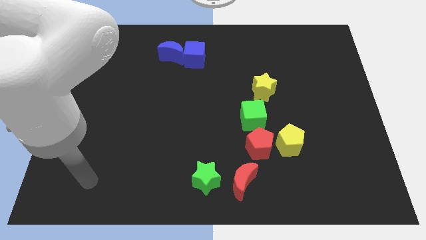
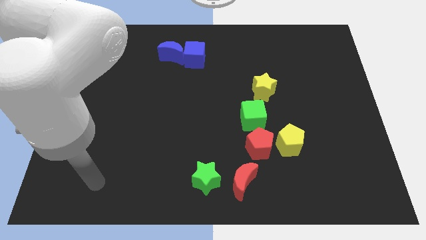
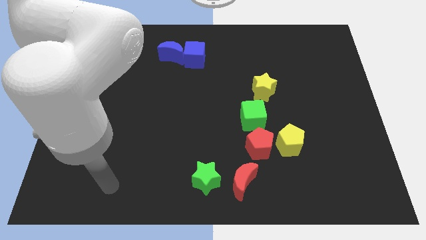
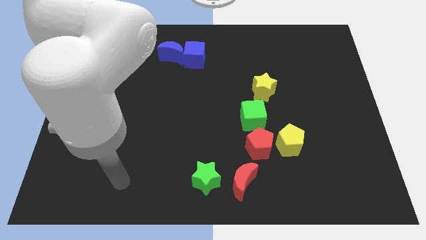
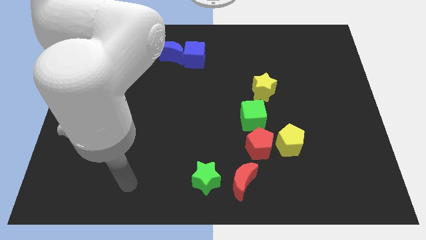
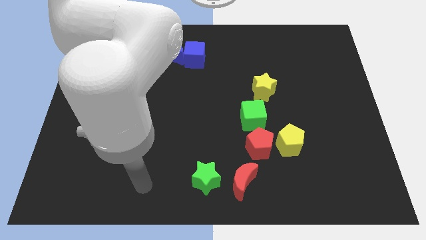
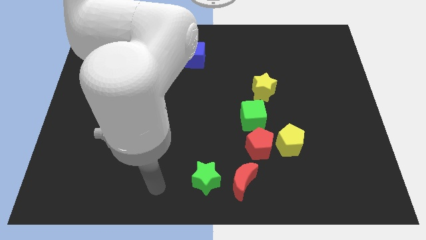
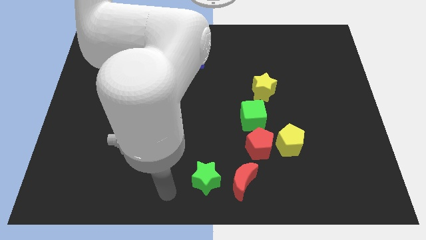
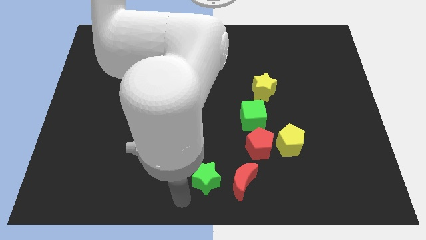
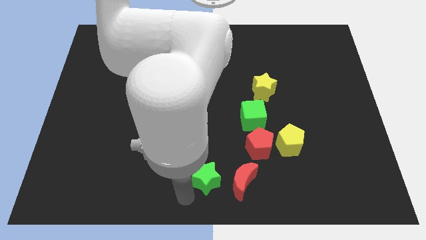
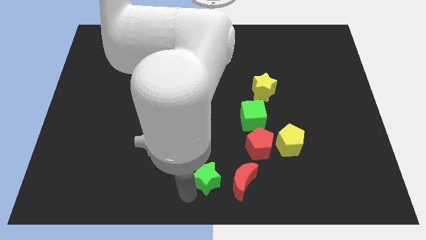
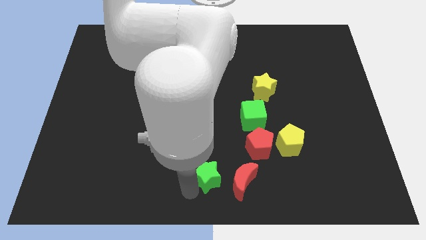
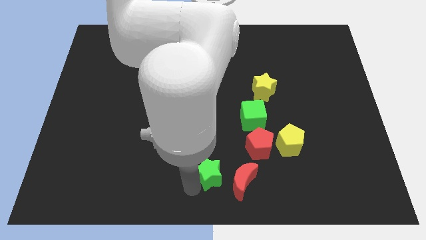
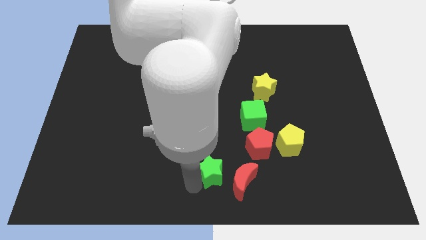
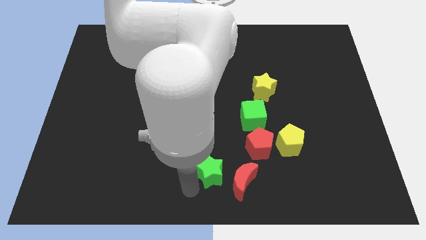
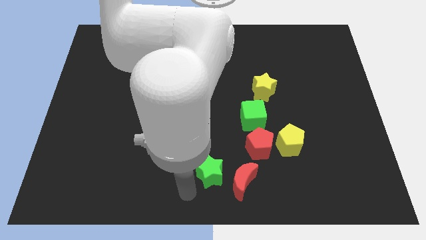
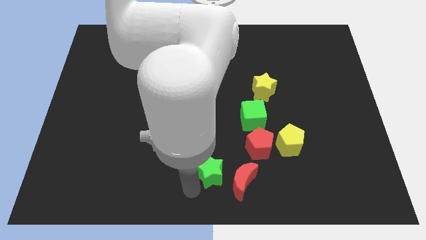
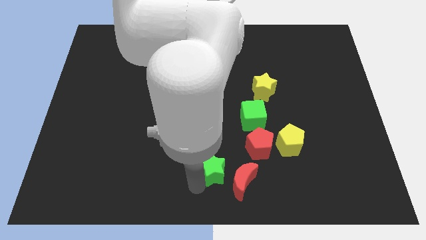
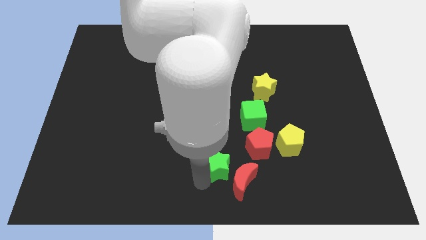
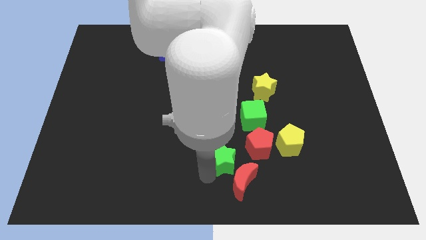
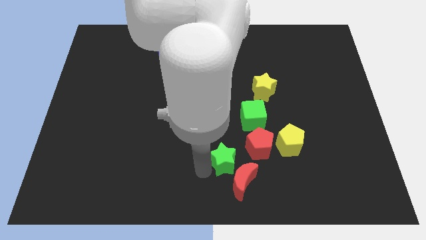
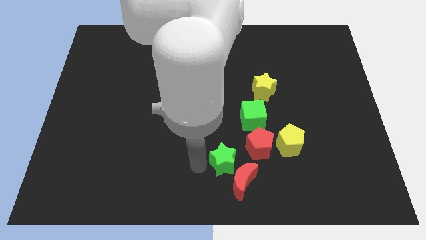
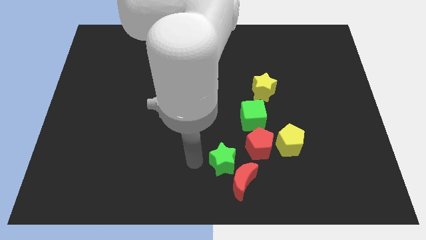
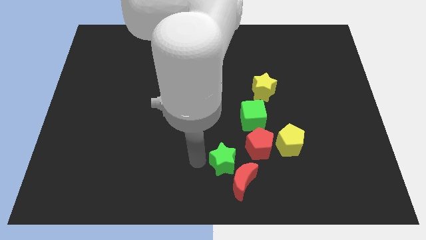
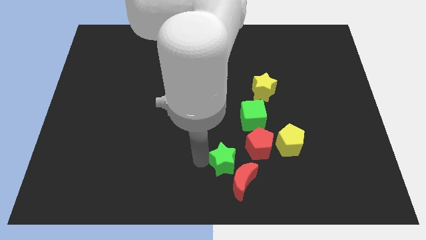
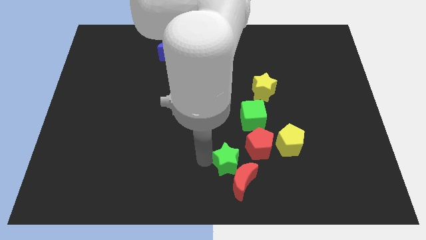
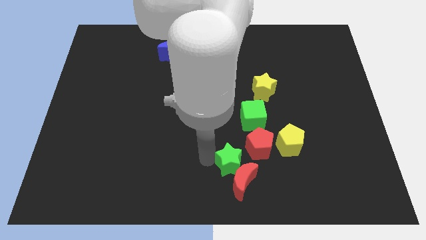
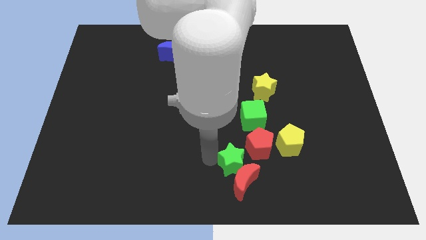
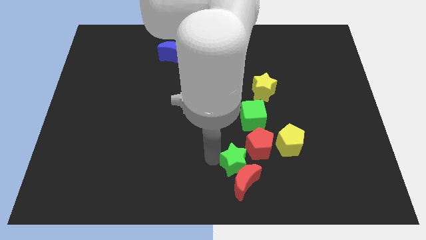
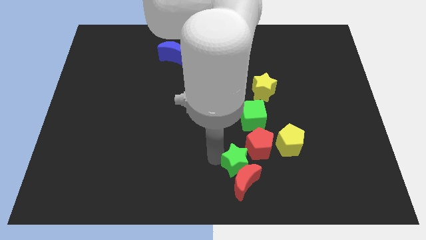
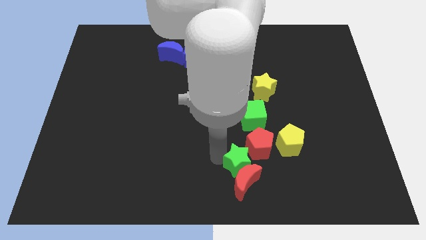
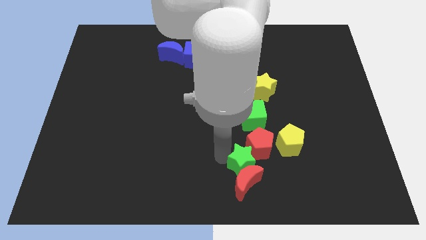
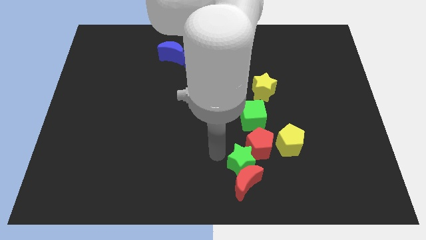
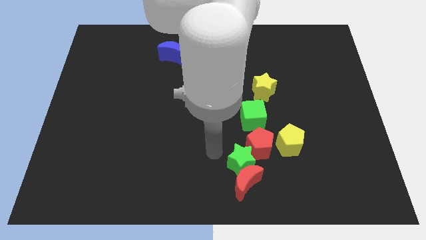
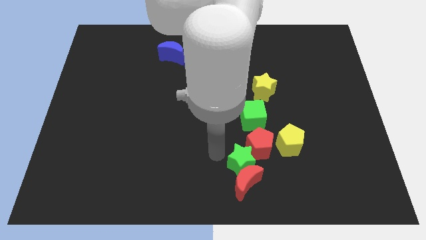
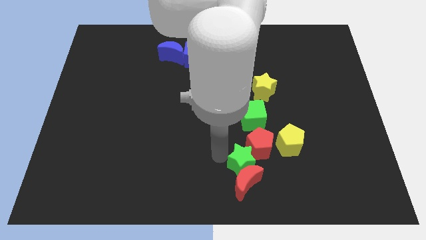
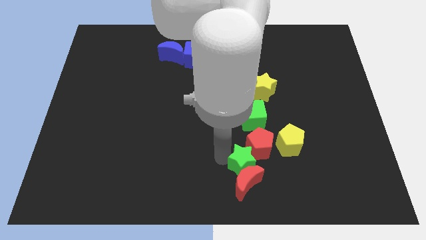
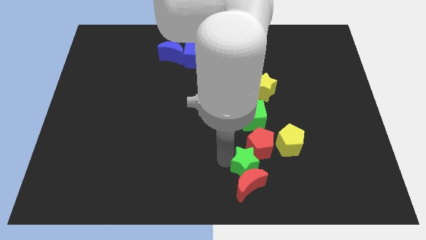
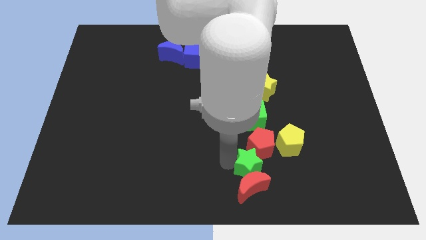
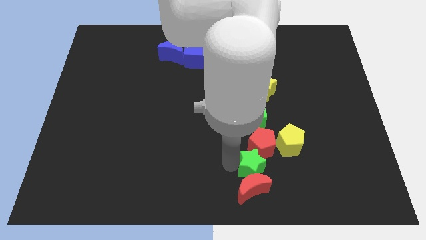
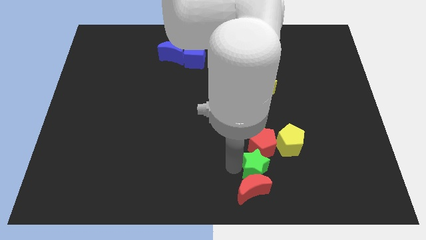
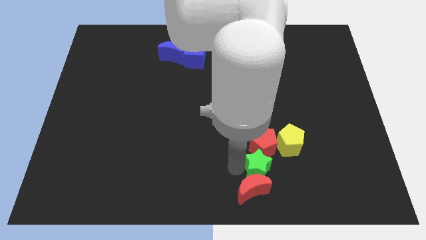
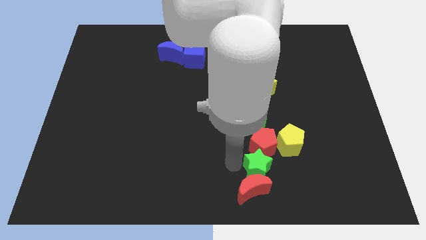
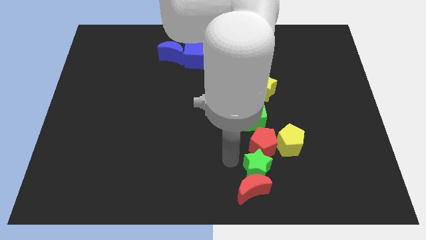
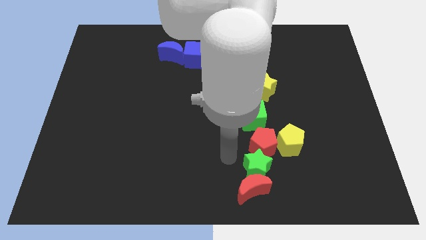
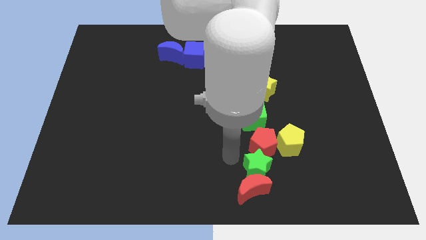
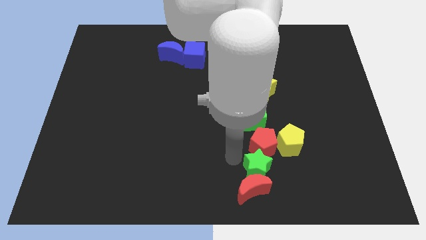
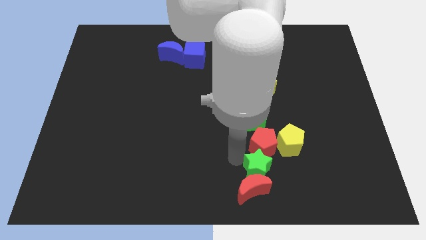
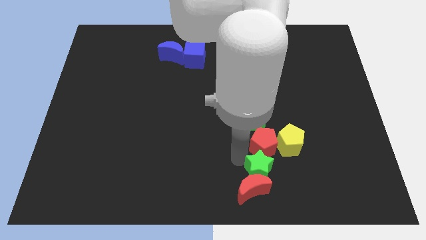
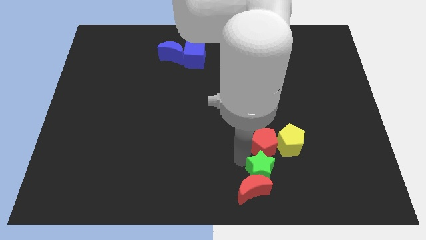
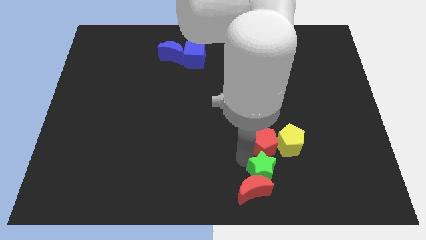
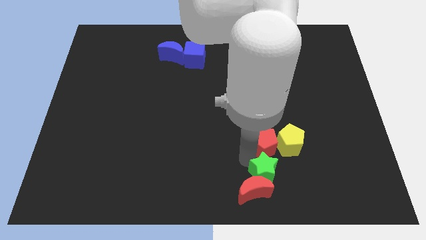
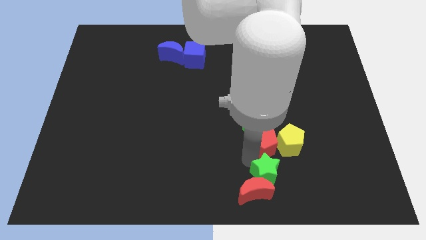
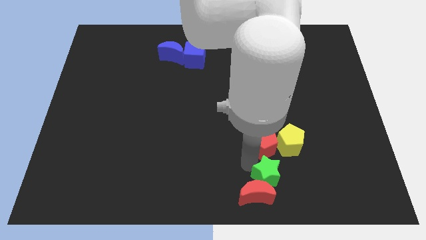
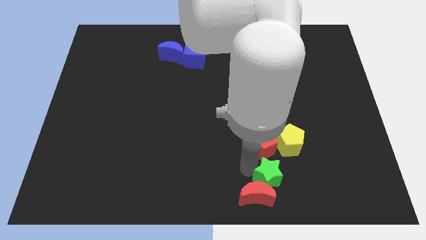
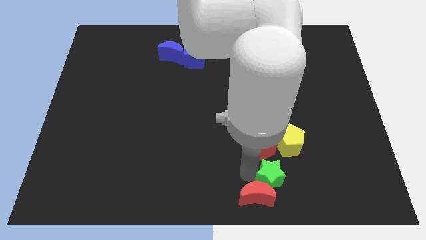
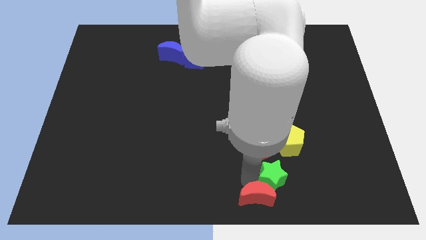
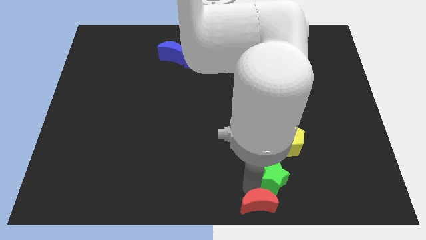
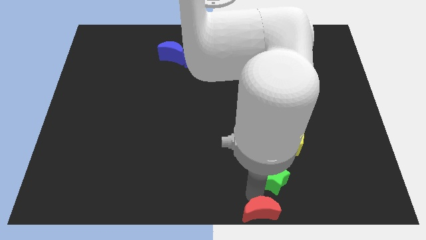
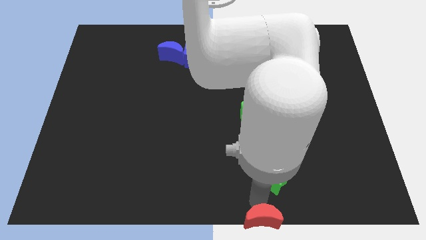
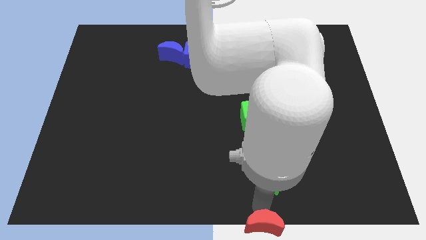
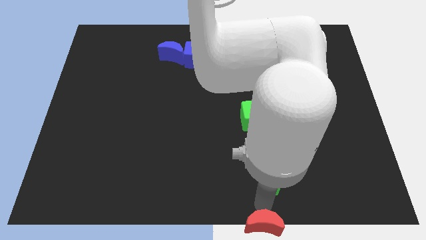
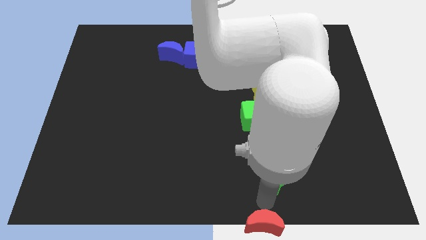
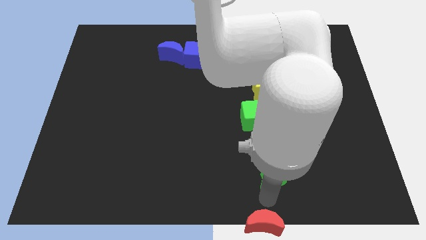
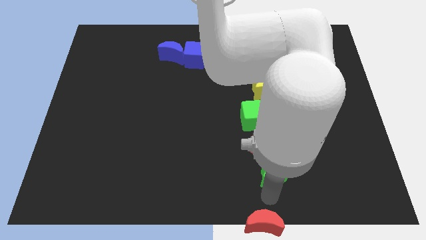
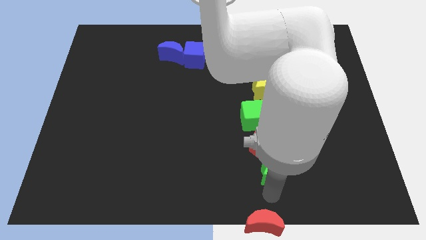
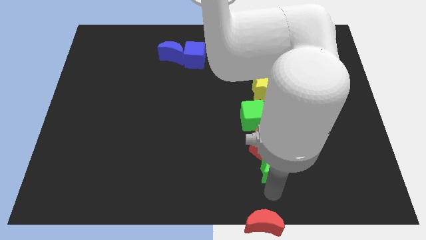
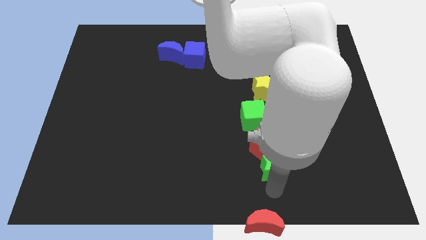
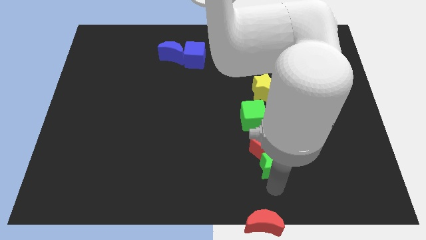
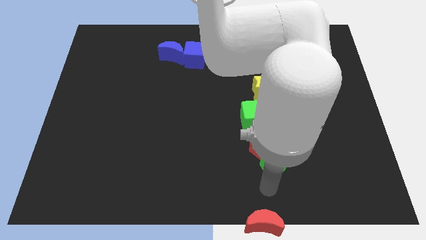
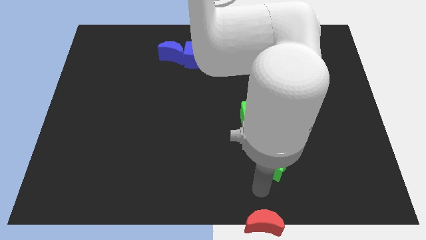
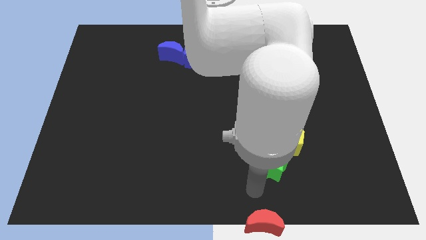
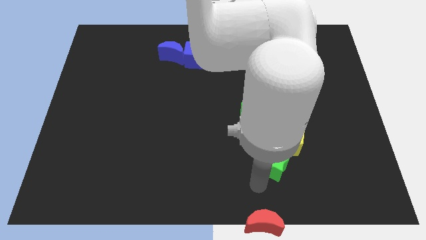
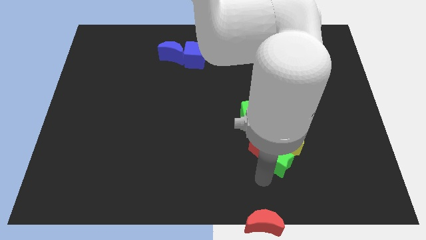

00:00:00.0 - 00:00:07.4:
put the green star to the yellow pentagon
